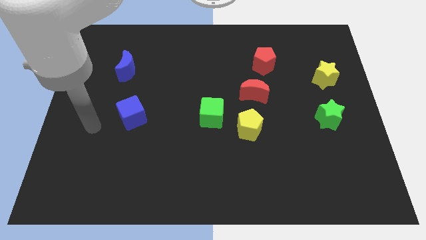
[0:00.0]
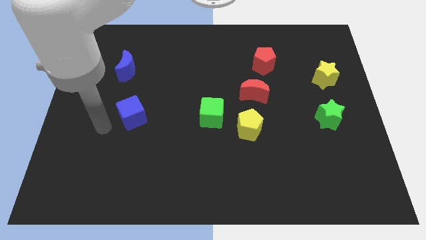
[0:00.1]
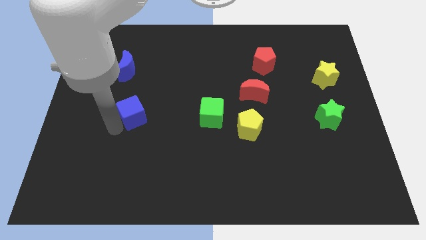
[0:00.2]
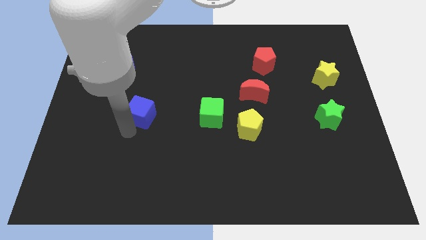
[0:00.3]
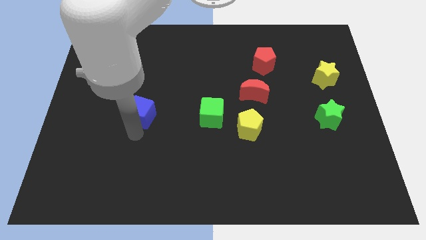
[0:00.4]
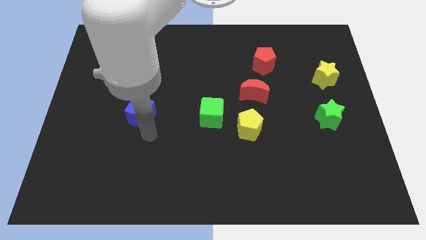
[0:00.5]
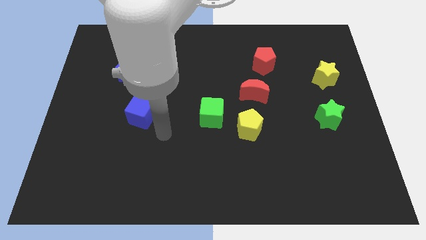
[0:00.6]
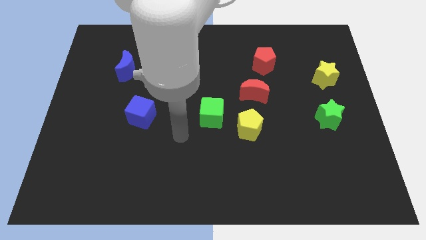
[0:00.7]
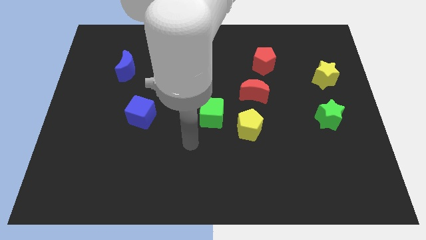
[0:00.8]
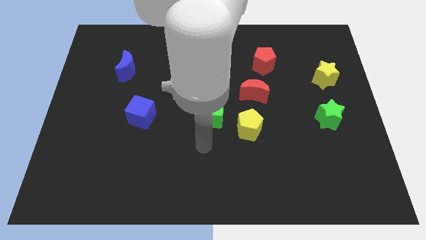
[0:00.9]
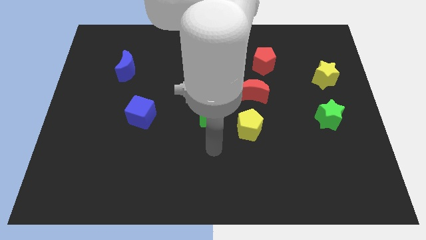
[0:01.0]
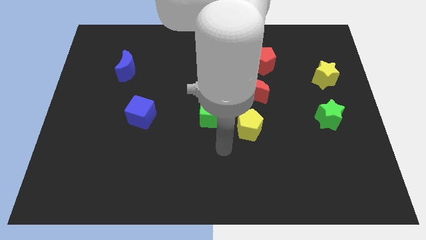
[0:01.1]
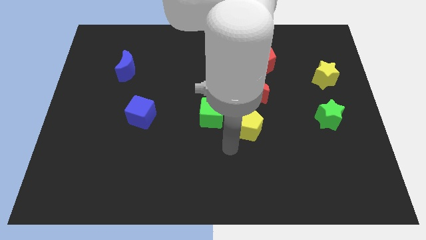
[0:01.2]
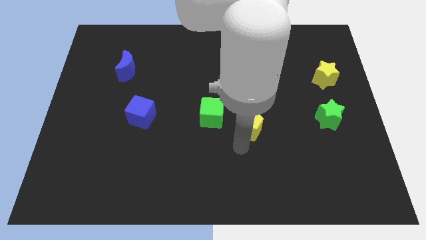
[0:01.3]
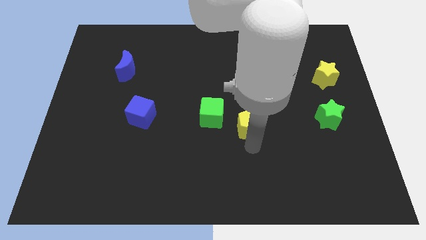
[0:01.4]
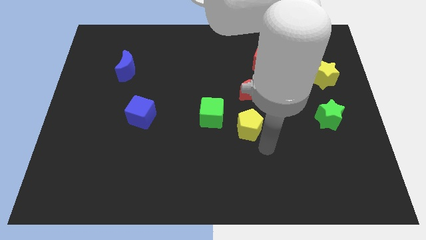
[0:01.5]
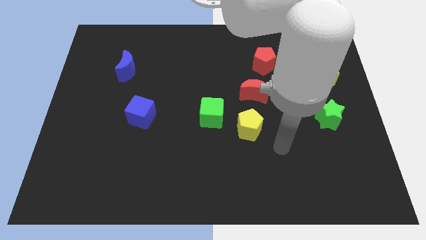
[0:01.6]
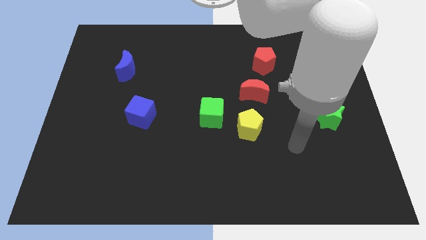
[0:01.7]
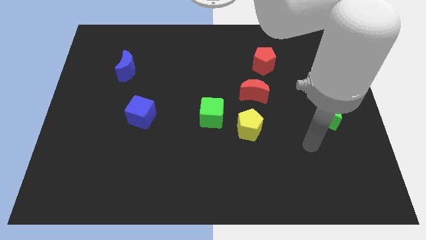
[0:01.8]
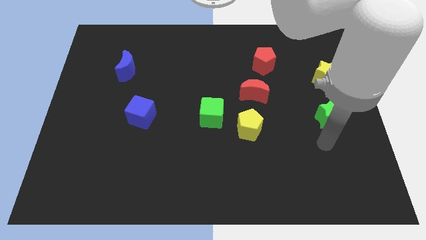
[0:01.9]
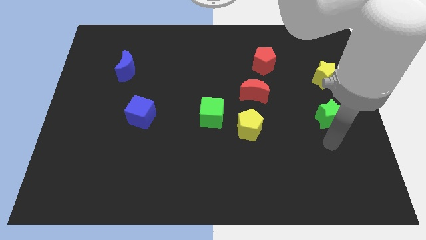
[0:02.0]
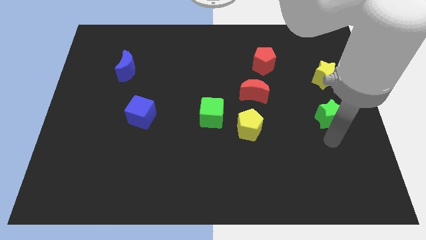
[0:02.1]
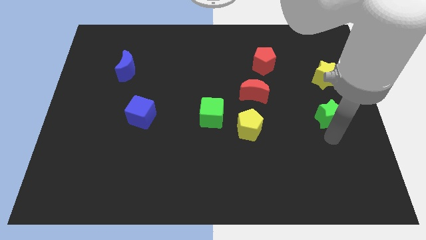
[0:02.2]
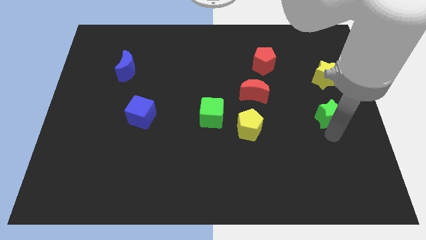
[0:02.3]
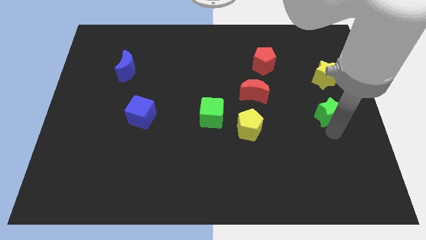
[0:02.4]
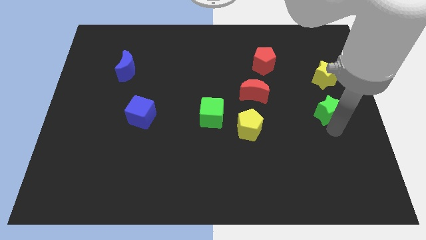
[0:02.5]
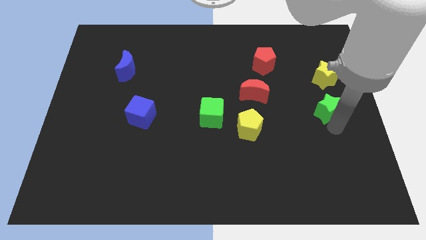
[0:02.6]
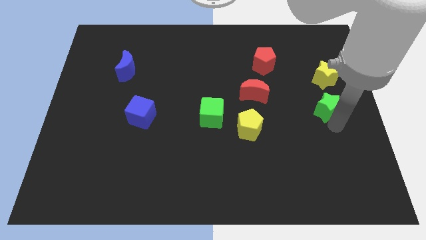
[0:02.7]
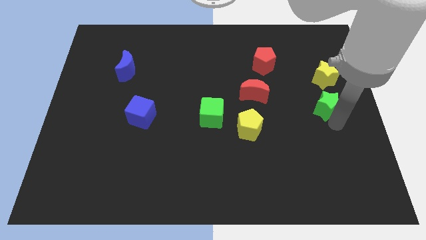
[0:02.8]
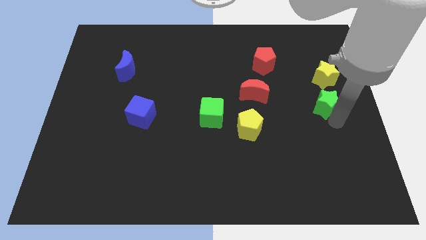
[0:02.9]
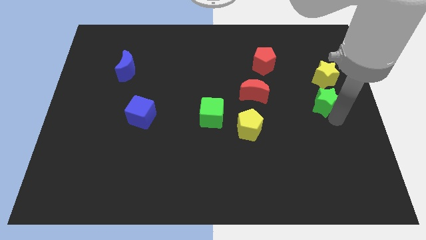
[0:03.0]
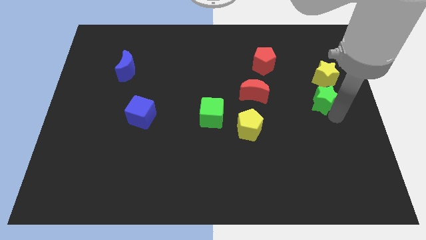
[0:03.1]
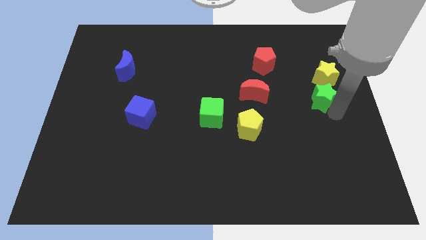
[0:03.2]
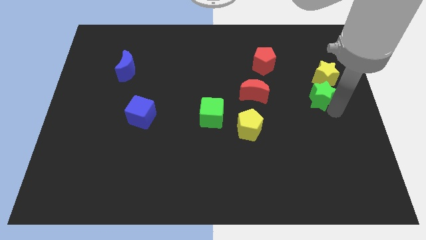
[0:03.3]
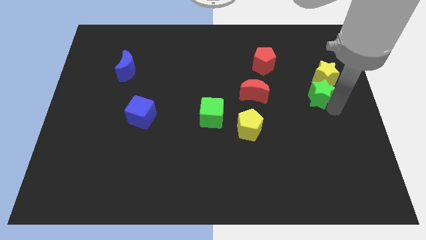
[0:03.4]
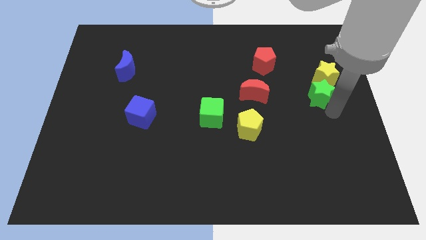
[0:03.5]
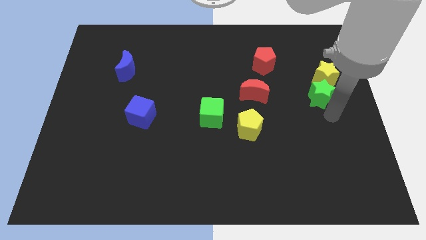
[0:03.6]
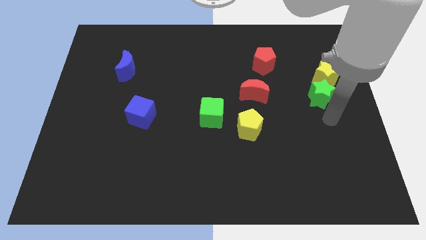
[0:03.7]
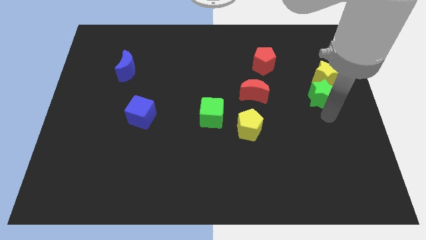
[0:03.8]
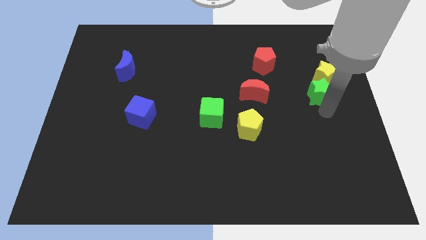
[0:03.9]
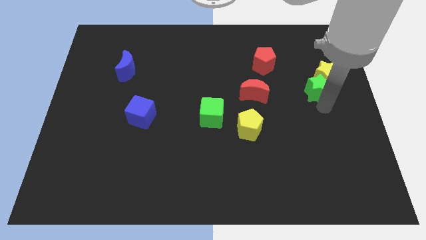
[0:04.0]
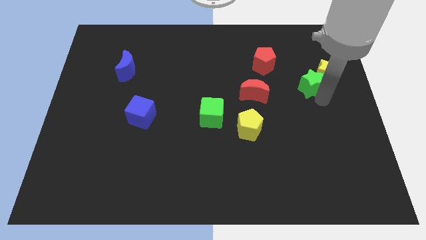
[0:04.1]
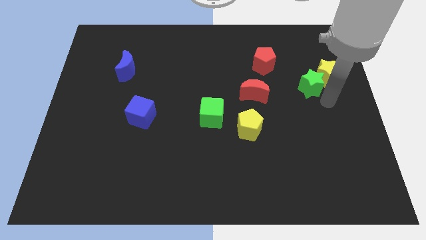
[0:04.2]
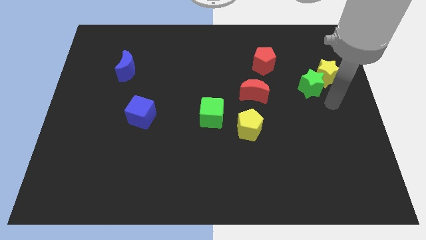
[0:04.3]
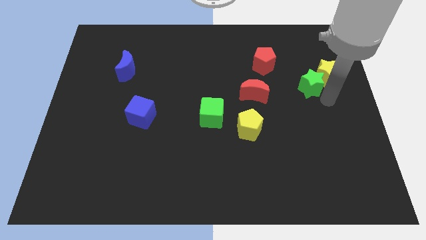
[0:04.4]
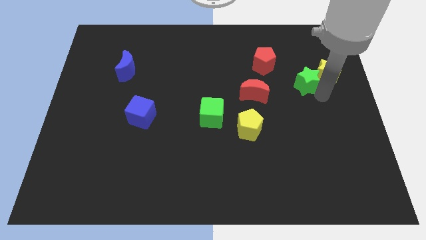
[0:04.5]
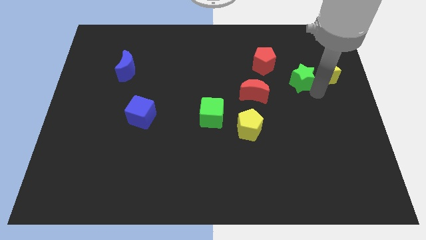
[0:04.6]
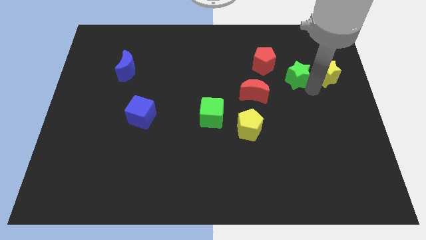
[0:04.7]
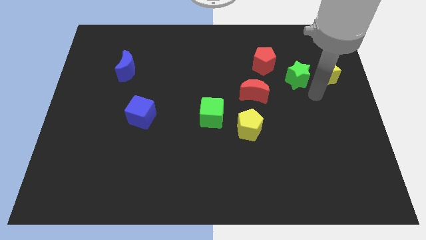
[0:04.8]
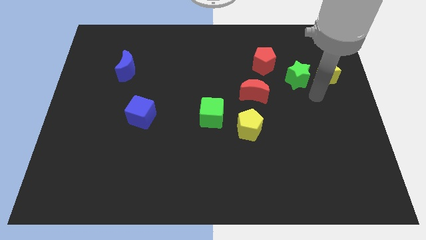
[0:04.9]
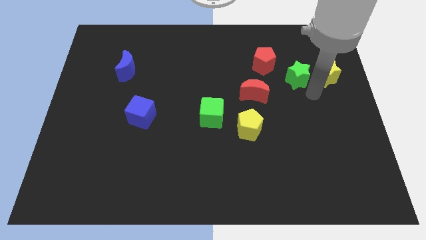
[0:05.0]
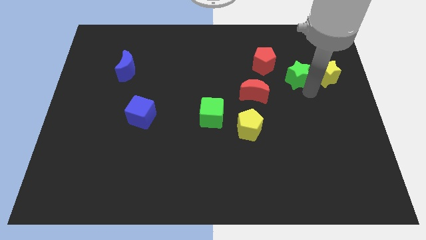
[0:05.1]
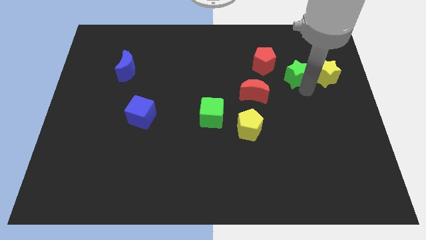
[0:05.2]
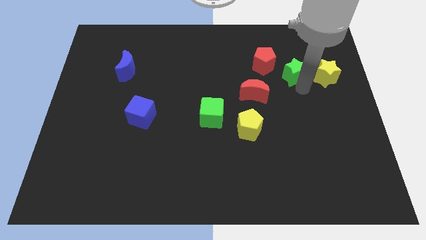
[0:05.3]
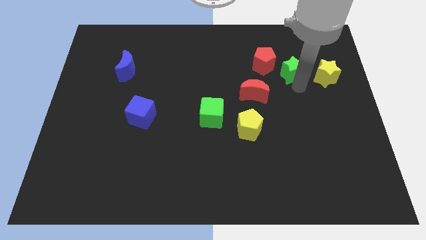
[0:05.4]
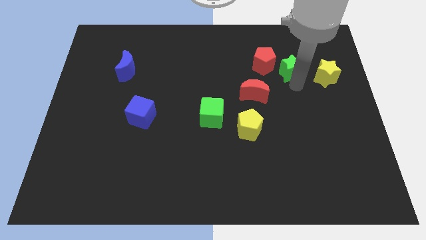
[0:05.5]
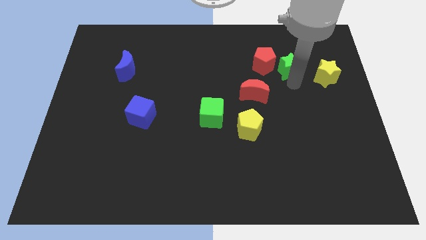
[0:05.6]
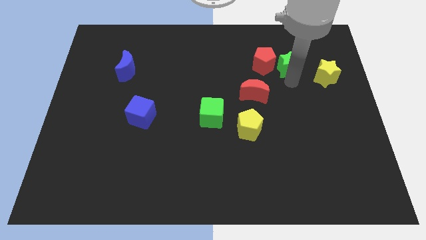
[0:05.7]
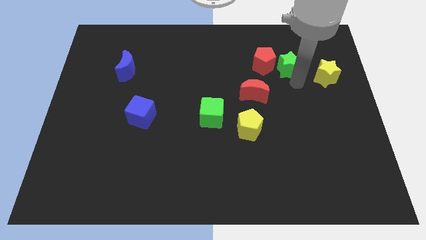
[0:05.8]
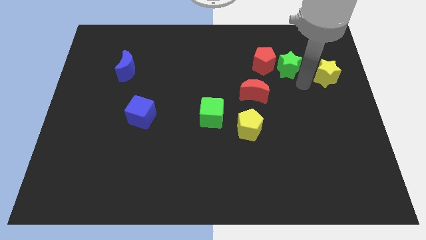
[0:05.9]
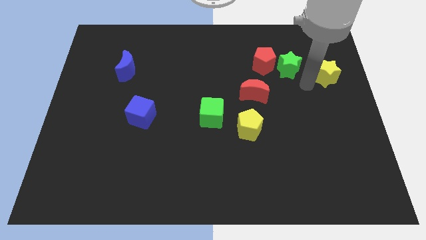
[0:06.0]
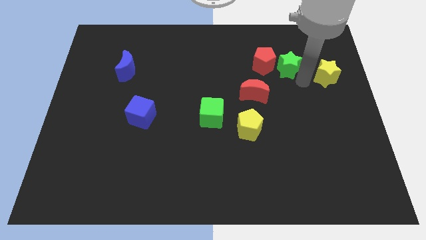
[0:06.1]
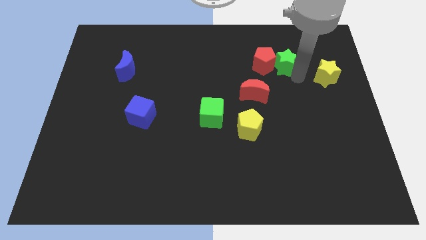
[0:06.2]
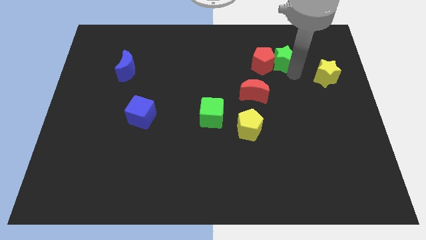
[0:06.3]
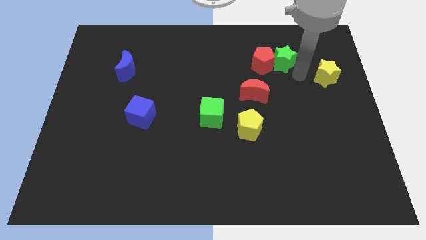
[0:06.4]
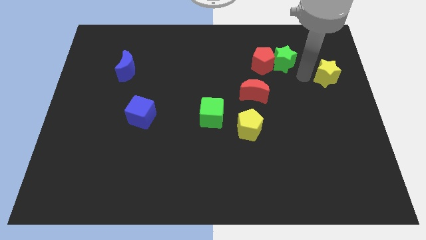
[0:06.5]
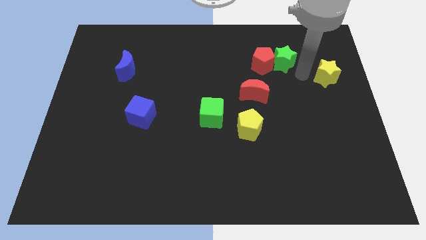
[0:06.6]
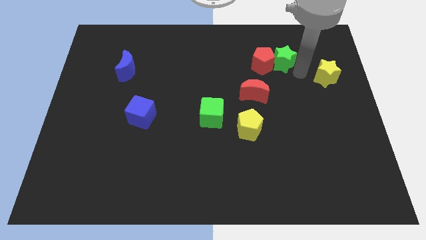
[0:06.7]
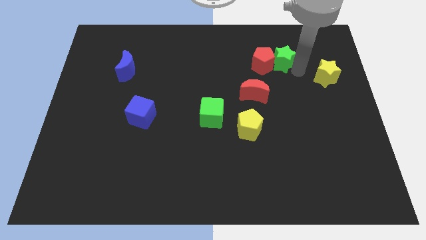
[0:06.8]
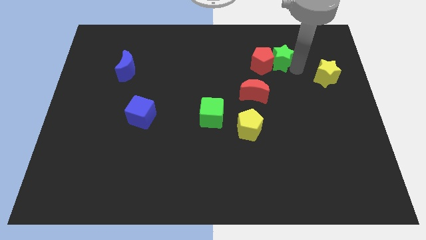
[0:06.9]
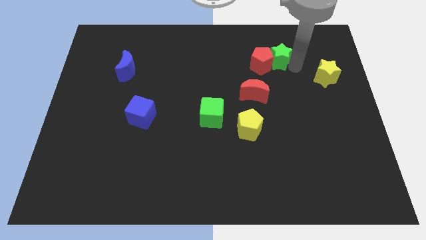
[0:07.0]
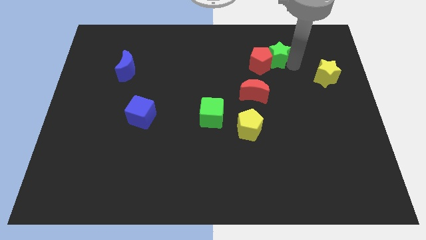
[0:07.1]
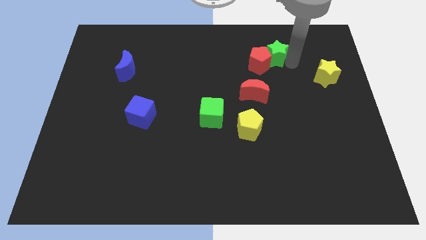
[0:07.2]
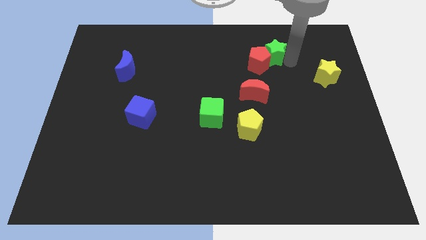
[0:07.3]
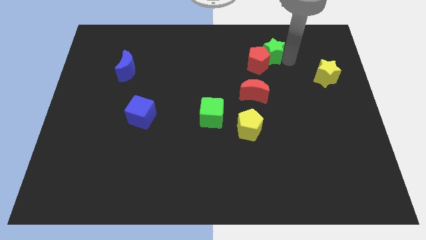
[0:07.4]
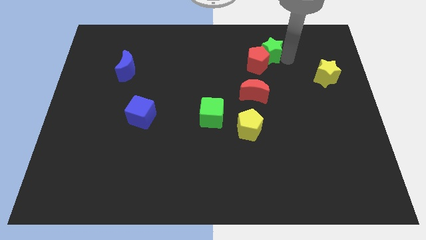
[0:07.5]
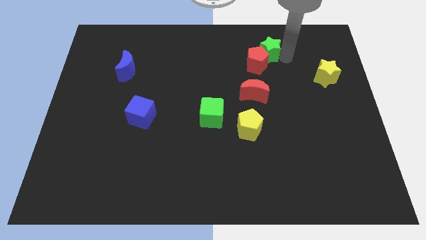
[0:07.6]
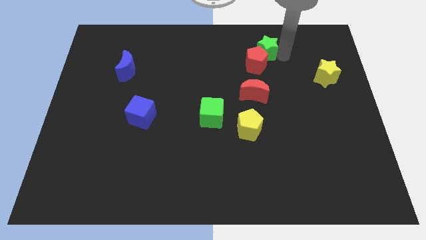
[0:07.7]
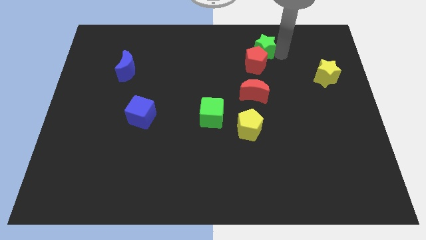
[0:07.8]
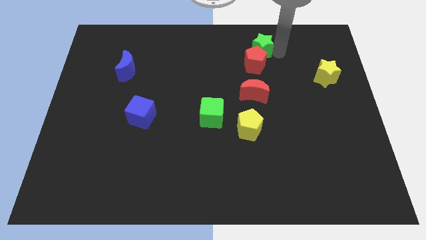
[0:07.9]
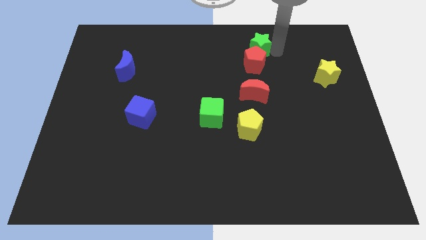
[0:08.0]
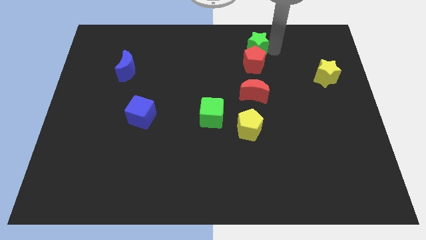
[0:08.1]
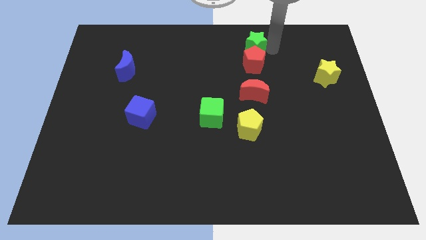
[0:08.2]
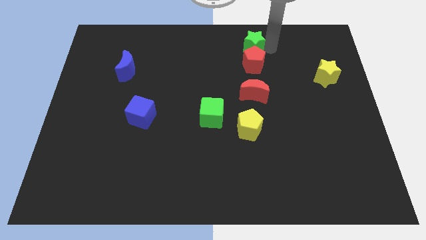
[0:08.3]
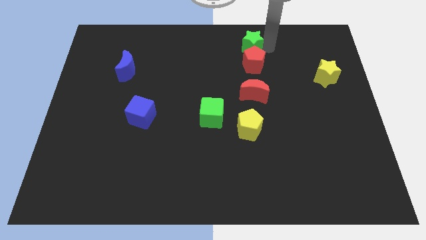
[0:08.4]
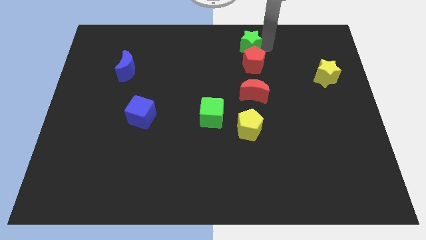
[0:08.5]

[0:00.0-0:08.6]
slide the green star to the top side
